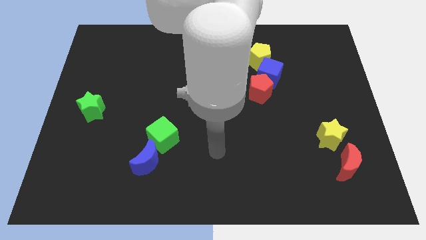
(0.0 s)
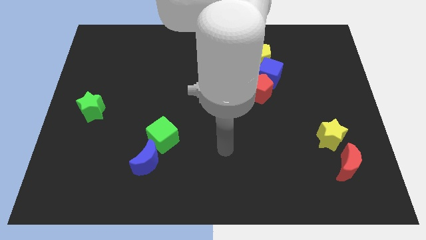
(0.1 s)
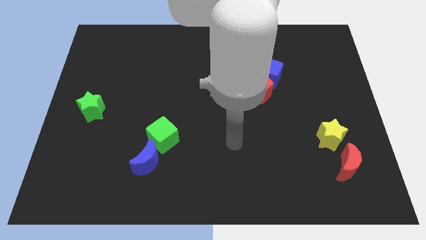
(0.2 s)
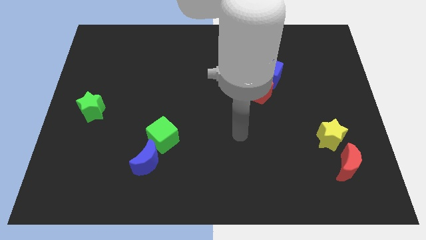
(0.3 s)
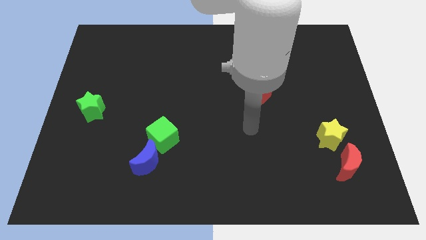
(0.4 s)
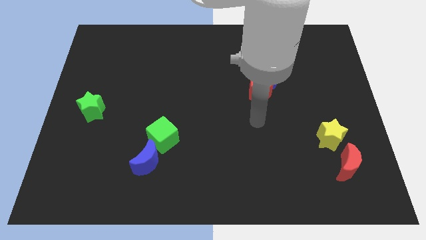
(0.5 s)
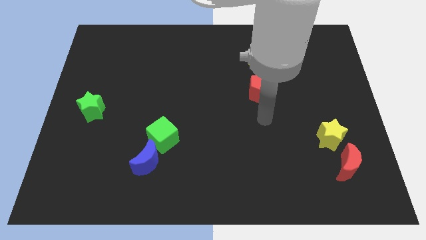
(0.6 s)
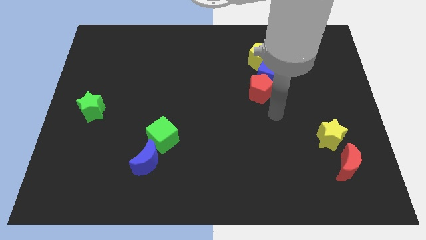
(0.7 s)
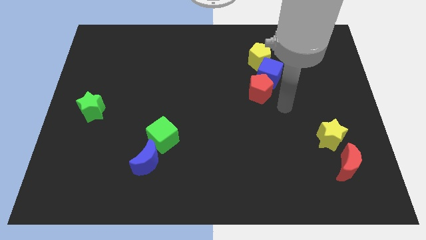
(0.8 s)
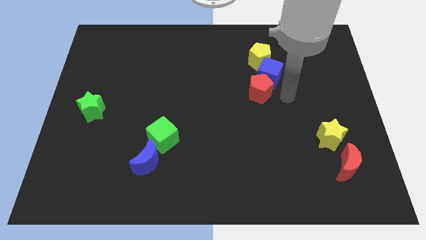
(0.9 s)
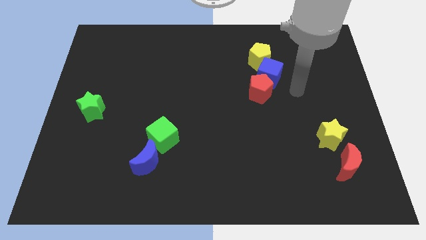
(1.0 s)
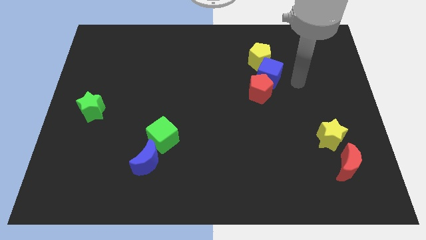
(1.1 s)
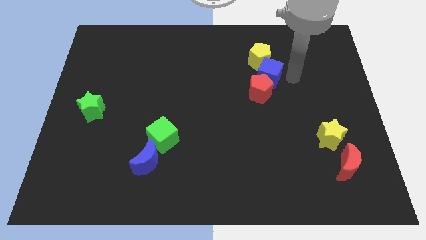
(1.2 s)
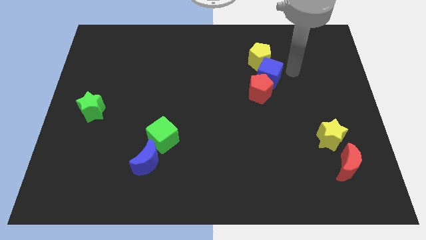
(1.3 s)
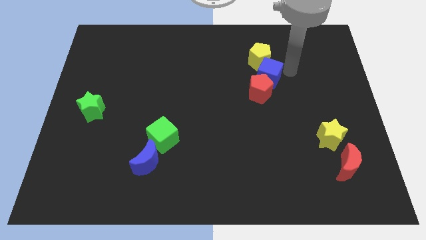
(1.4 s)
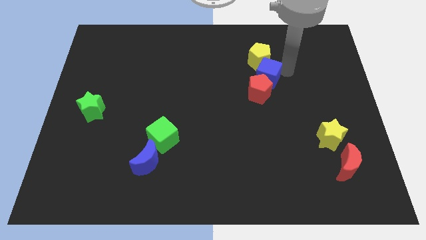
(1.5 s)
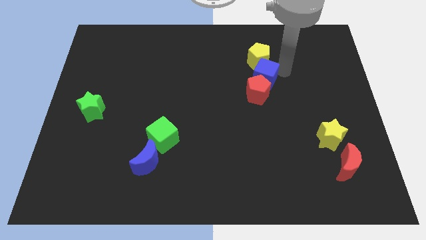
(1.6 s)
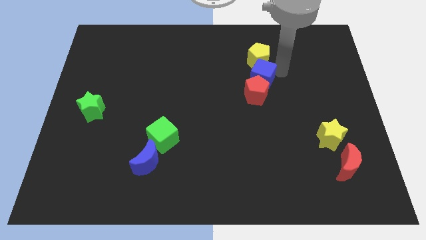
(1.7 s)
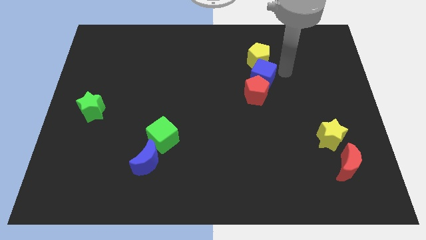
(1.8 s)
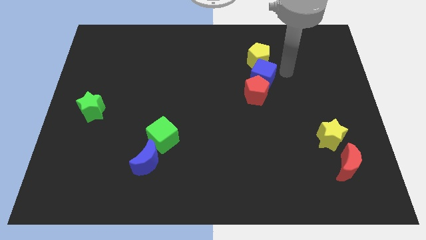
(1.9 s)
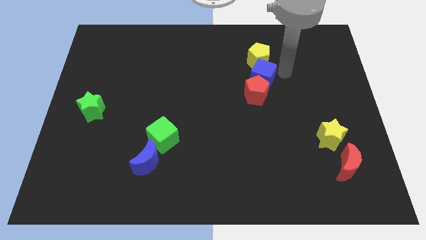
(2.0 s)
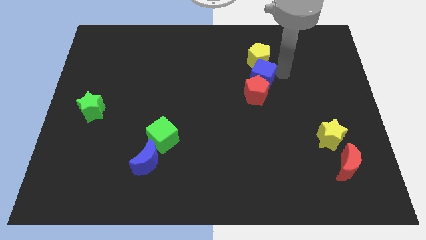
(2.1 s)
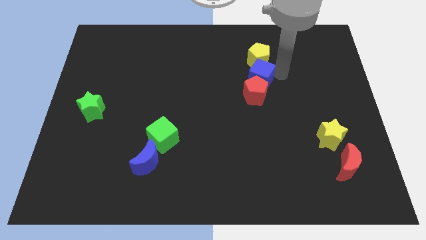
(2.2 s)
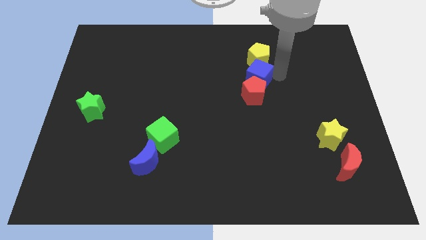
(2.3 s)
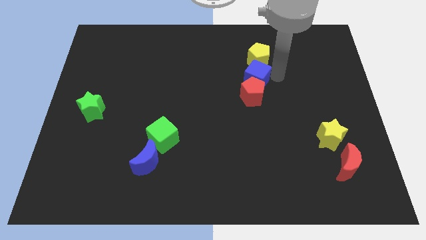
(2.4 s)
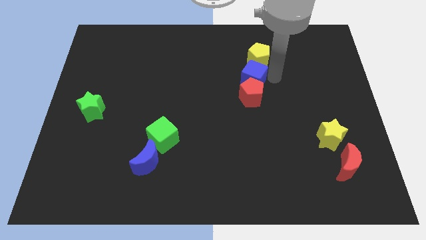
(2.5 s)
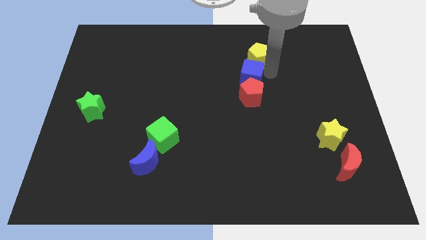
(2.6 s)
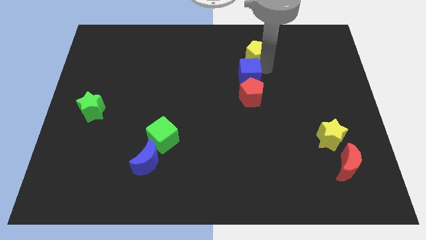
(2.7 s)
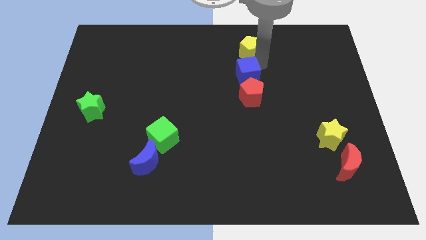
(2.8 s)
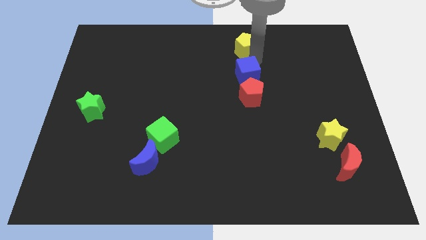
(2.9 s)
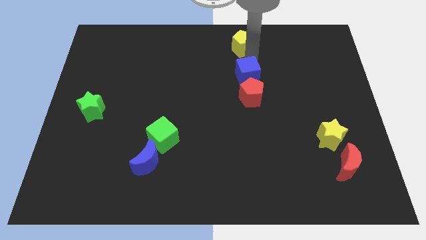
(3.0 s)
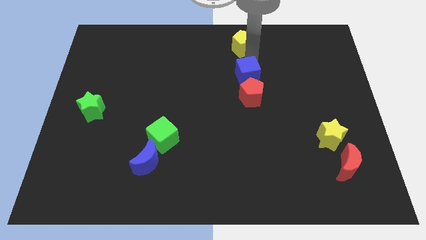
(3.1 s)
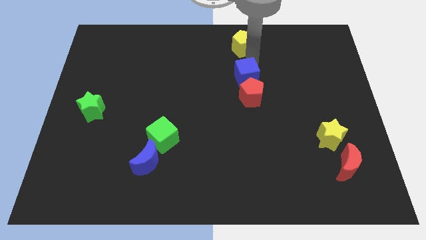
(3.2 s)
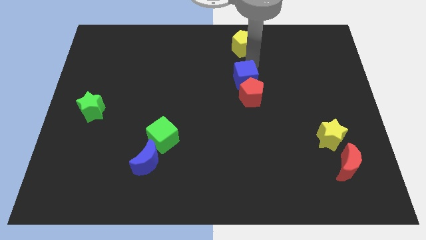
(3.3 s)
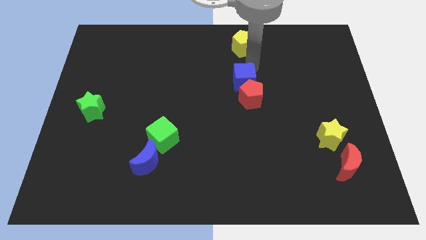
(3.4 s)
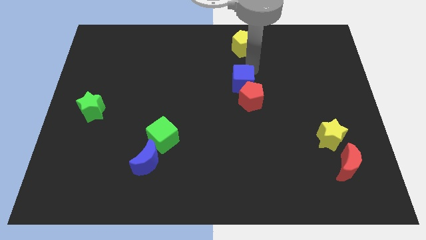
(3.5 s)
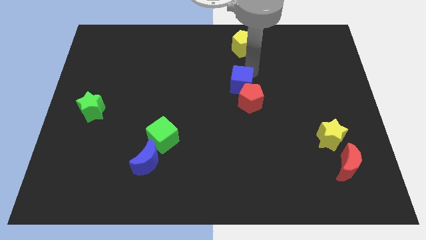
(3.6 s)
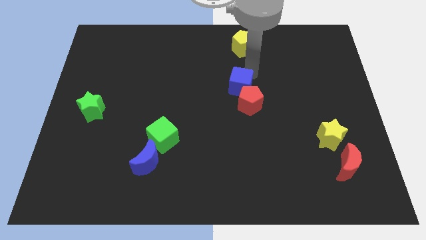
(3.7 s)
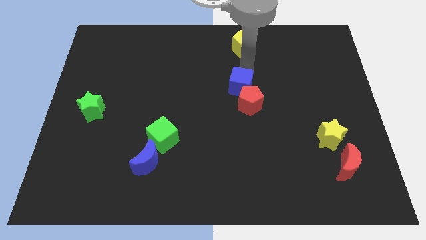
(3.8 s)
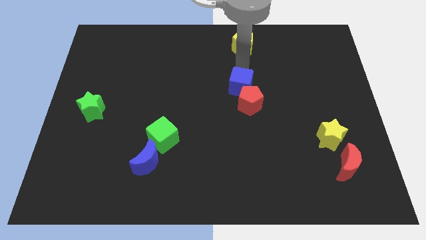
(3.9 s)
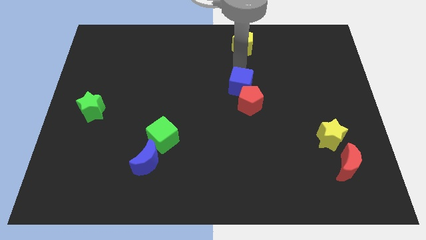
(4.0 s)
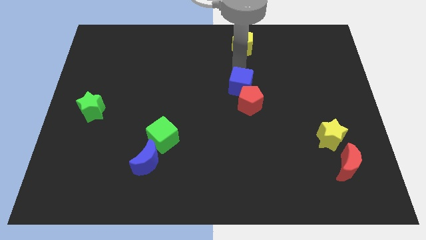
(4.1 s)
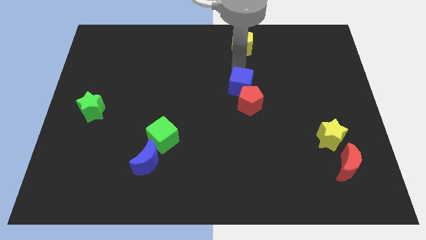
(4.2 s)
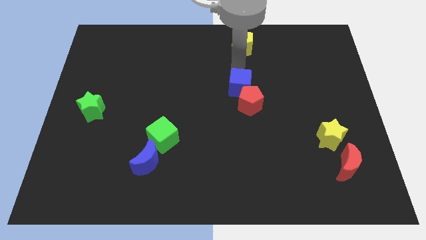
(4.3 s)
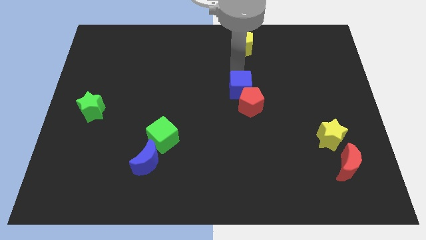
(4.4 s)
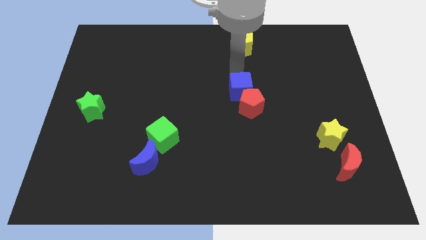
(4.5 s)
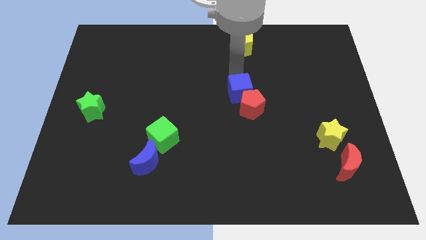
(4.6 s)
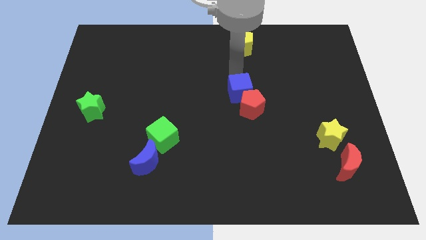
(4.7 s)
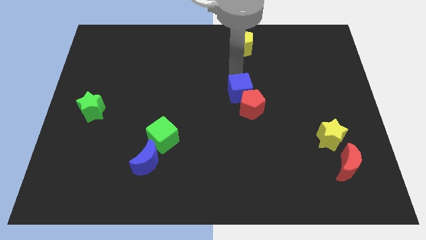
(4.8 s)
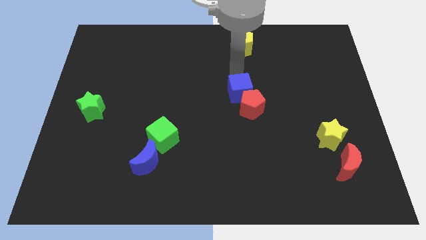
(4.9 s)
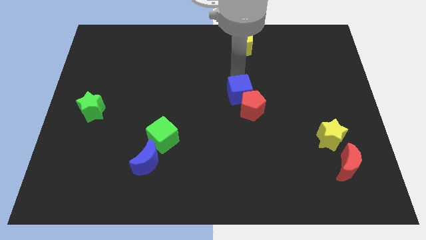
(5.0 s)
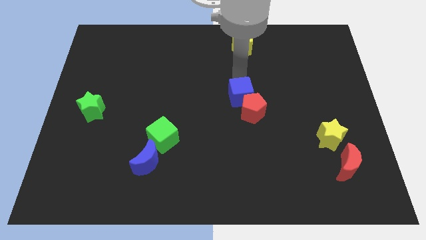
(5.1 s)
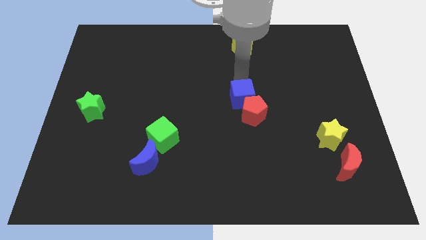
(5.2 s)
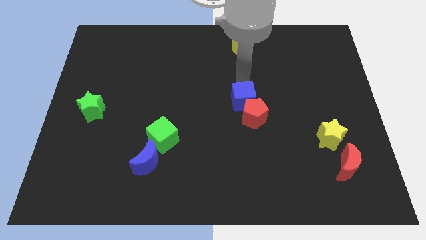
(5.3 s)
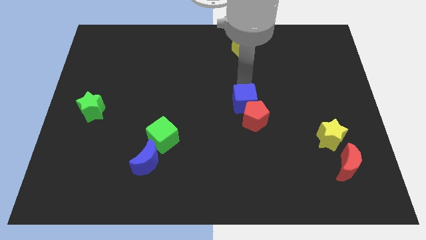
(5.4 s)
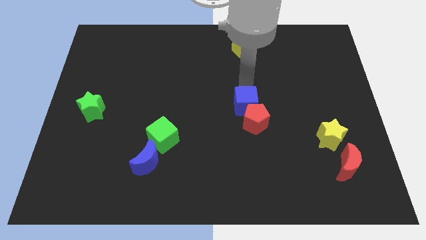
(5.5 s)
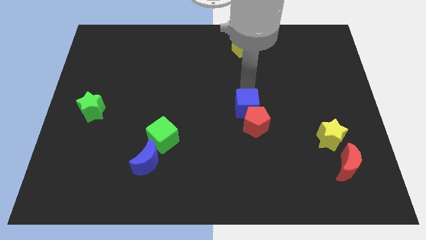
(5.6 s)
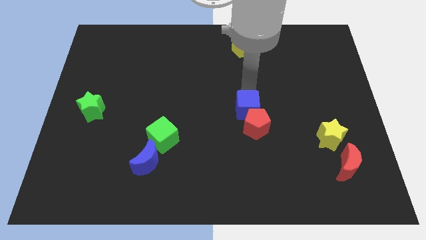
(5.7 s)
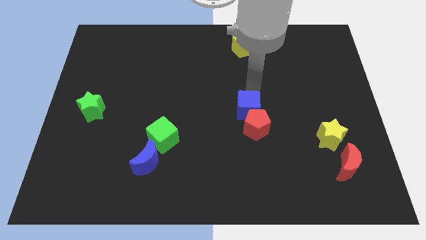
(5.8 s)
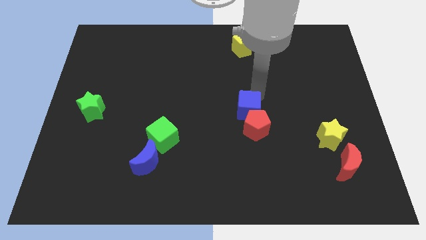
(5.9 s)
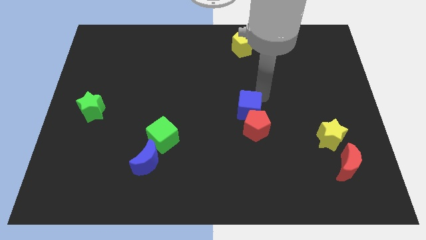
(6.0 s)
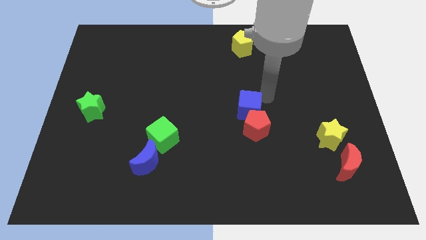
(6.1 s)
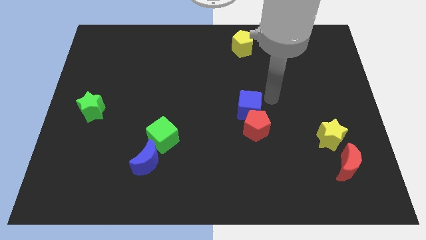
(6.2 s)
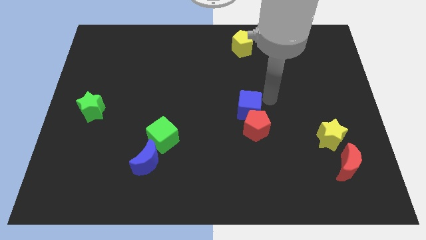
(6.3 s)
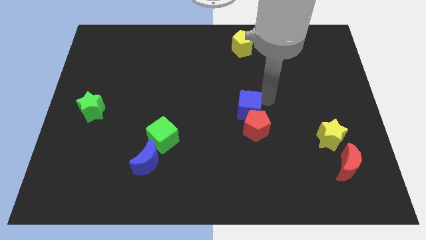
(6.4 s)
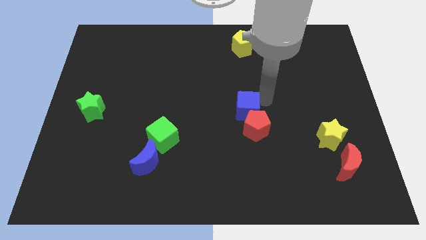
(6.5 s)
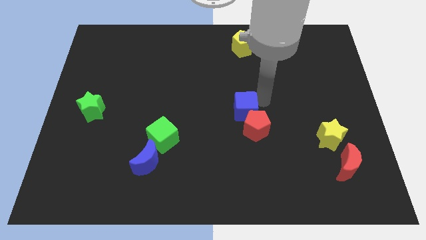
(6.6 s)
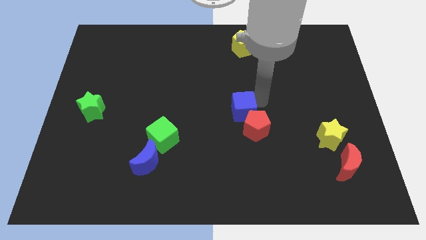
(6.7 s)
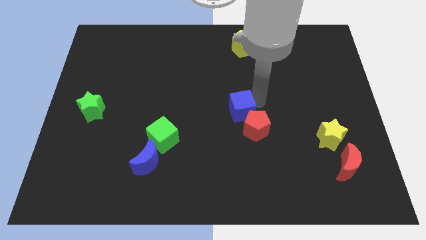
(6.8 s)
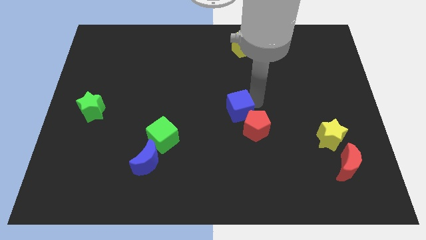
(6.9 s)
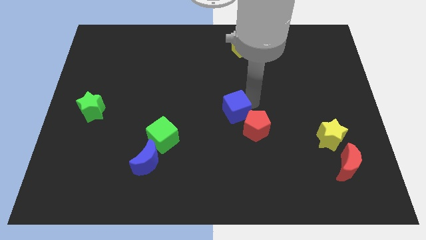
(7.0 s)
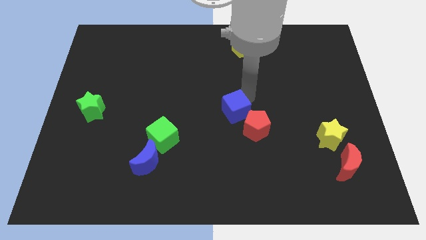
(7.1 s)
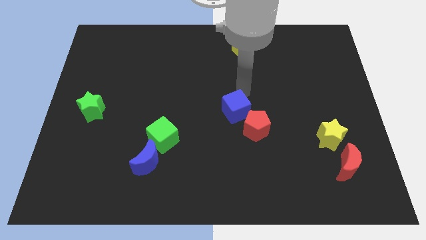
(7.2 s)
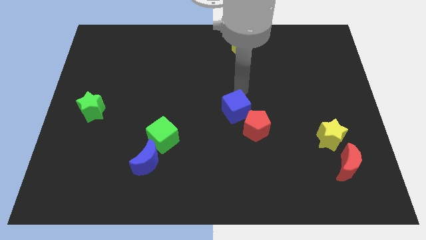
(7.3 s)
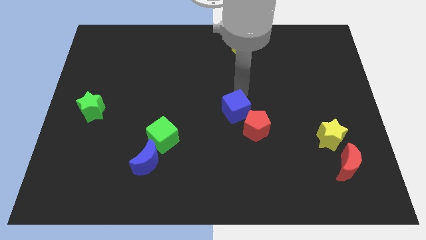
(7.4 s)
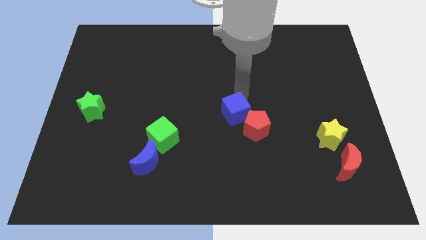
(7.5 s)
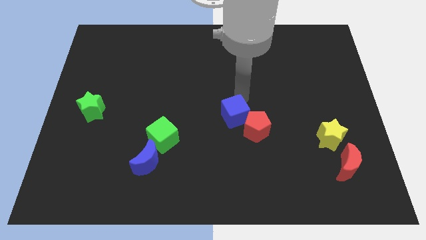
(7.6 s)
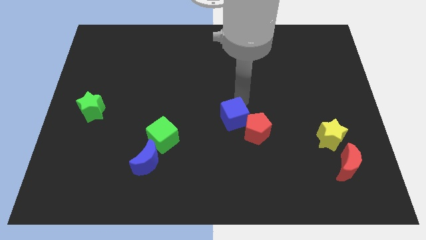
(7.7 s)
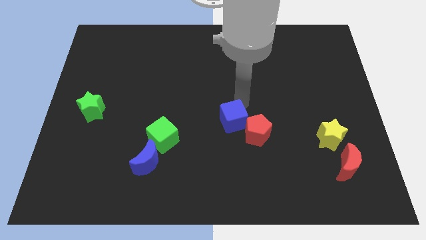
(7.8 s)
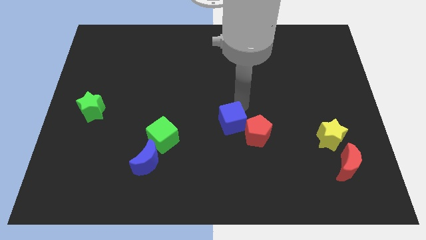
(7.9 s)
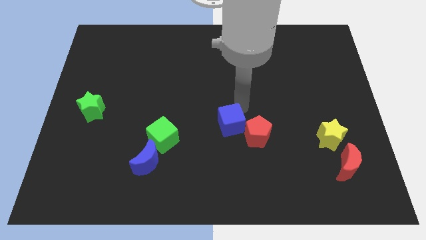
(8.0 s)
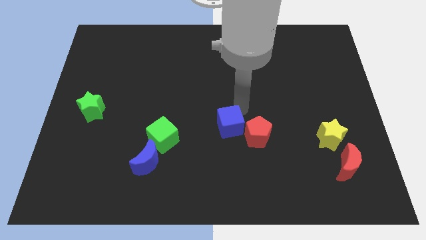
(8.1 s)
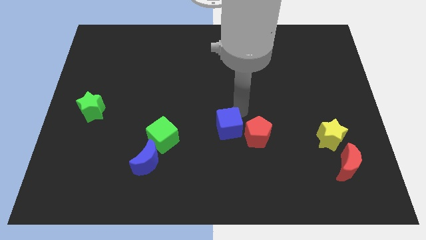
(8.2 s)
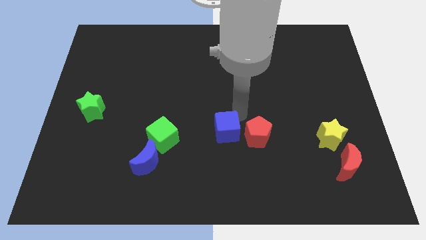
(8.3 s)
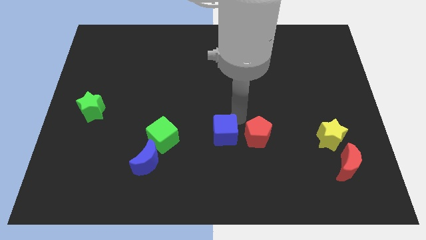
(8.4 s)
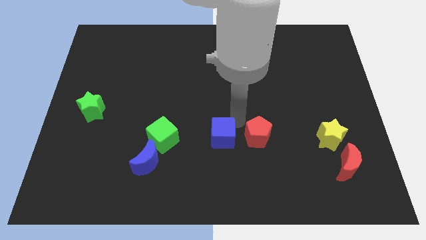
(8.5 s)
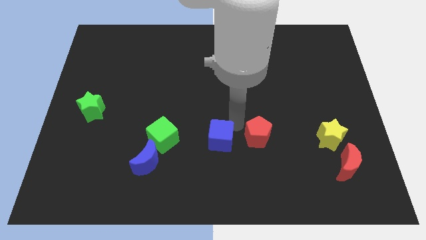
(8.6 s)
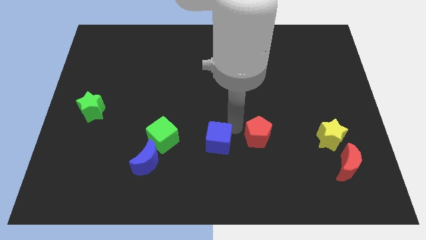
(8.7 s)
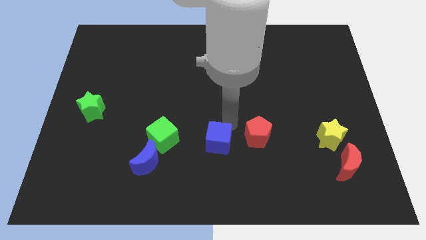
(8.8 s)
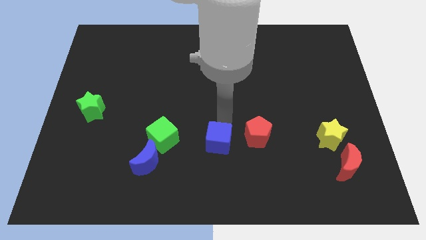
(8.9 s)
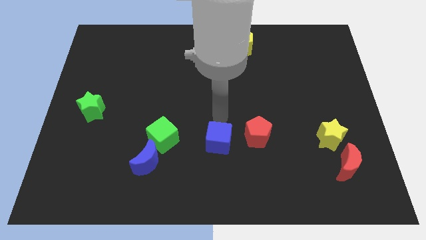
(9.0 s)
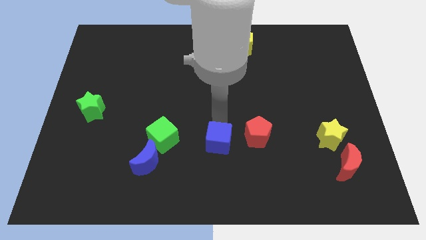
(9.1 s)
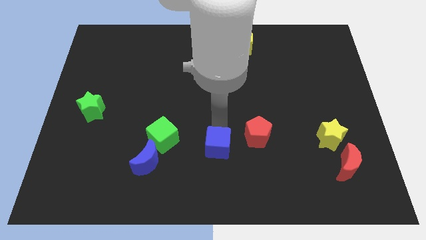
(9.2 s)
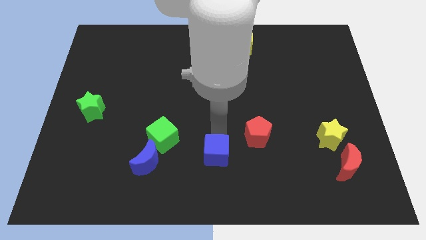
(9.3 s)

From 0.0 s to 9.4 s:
move the blue cube to the bottom side
